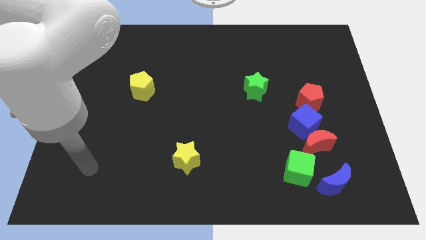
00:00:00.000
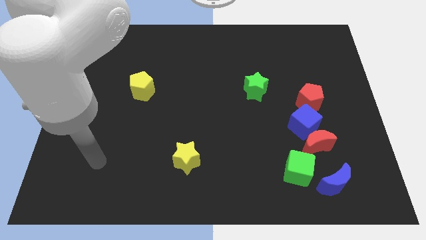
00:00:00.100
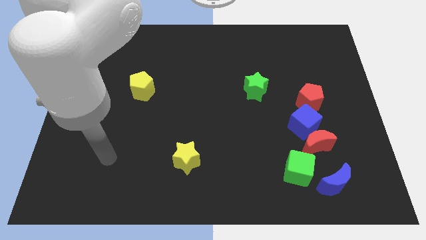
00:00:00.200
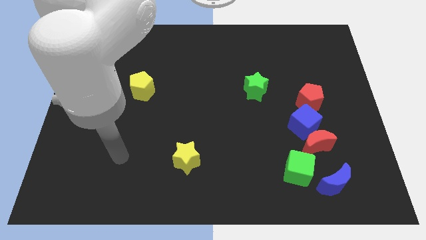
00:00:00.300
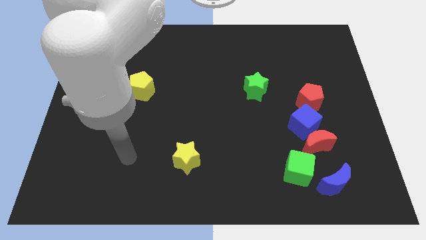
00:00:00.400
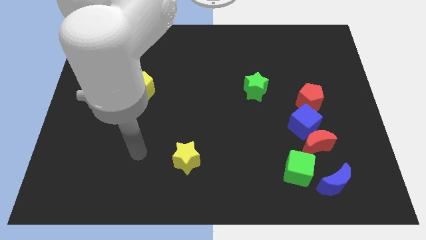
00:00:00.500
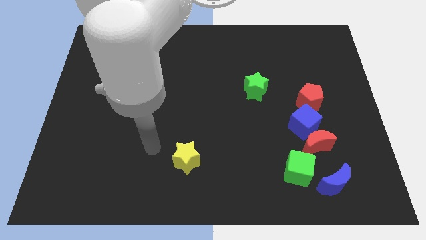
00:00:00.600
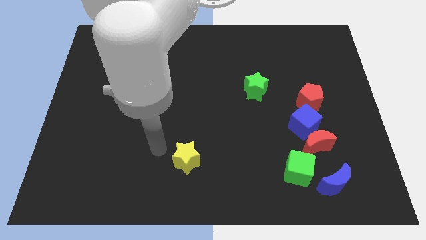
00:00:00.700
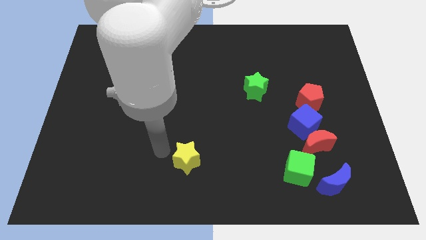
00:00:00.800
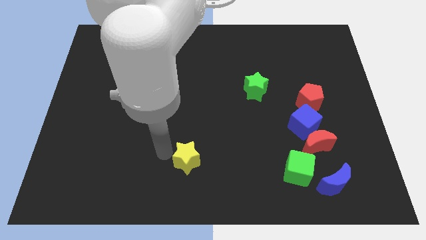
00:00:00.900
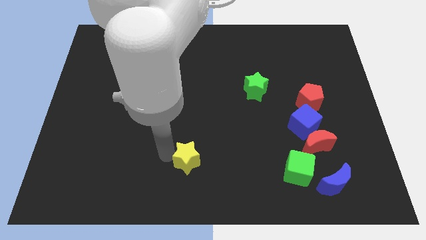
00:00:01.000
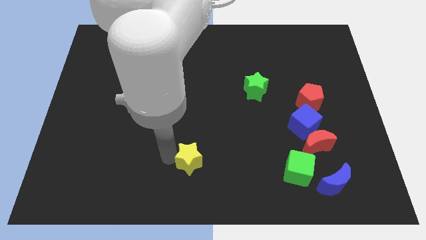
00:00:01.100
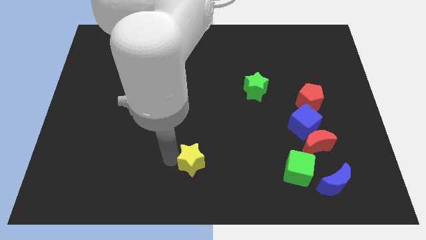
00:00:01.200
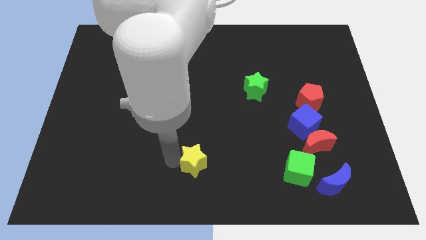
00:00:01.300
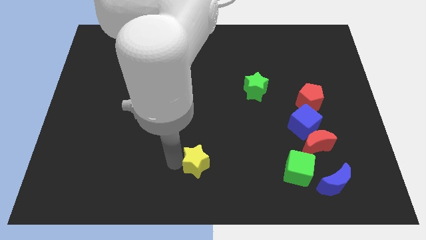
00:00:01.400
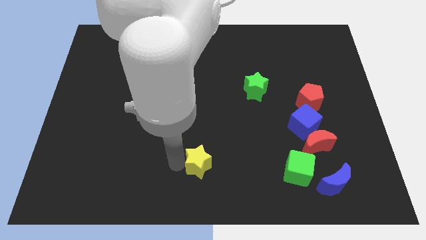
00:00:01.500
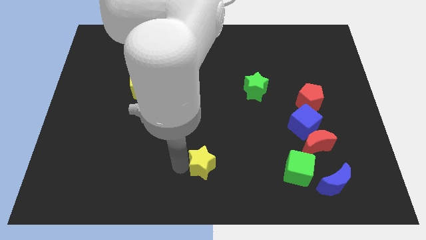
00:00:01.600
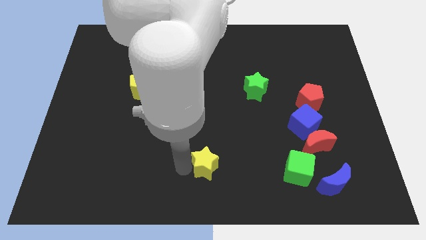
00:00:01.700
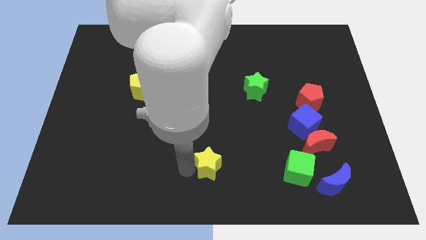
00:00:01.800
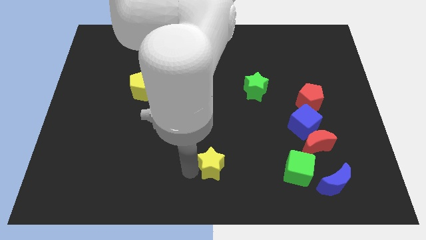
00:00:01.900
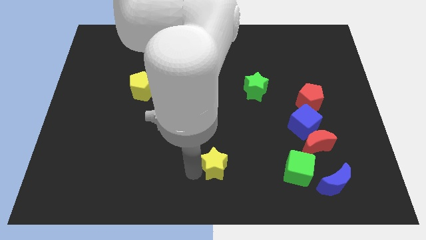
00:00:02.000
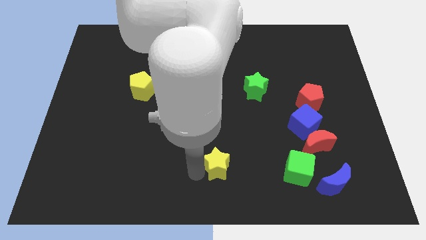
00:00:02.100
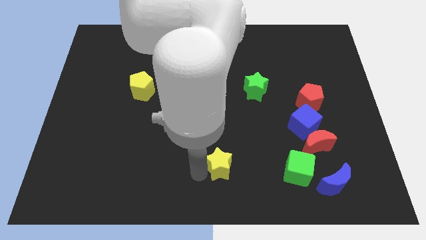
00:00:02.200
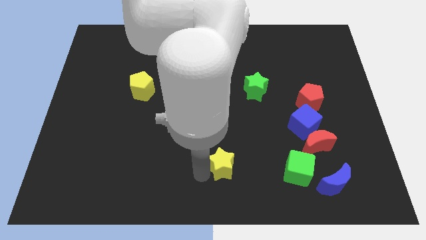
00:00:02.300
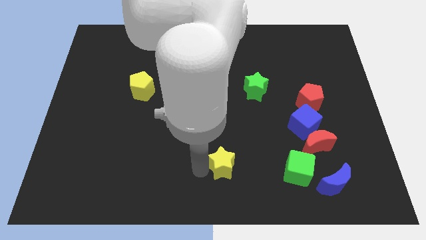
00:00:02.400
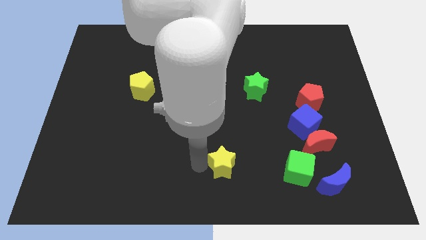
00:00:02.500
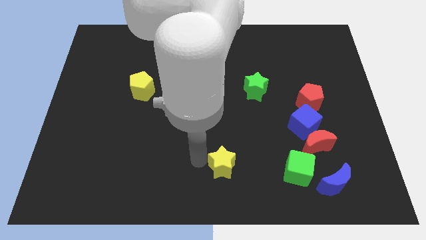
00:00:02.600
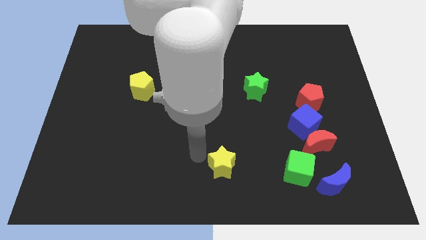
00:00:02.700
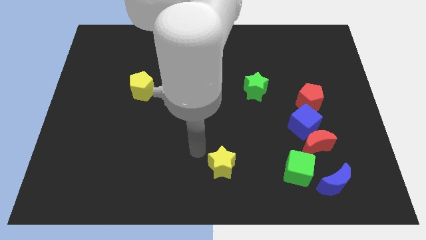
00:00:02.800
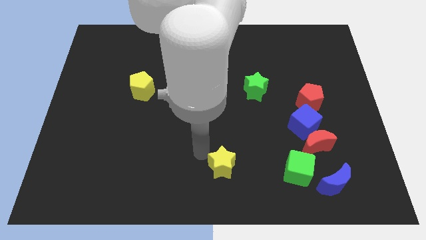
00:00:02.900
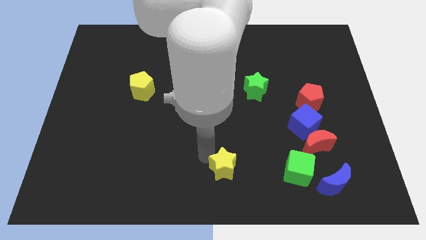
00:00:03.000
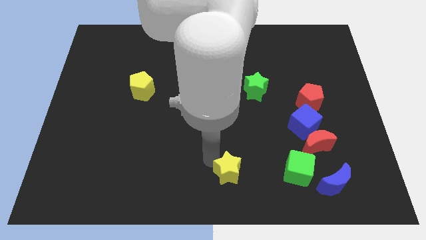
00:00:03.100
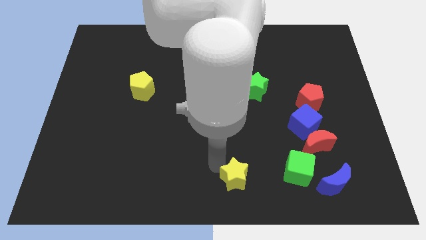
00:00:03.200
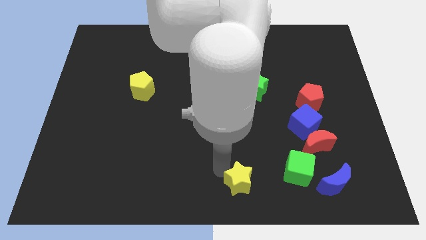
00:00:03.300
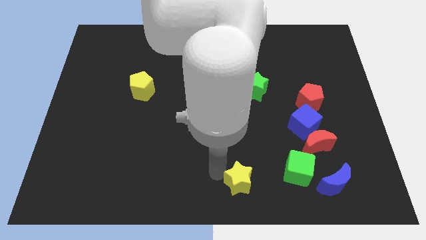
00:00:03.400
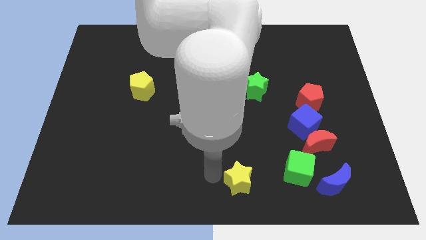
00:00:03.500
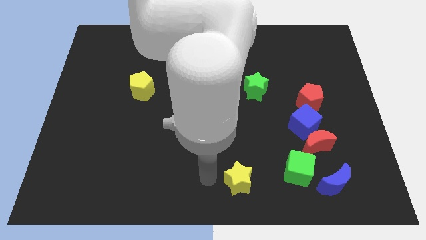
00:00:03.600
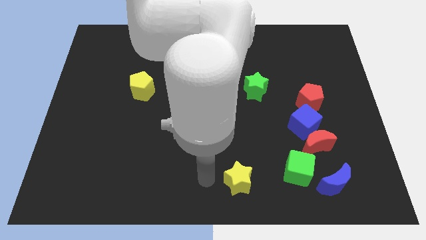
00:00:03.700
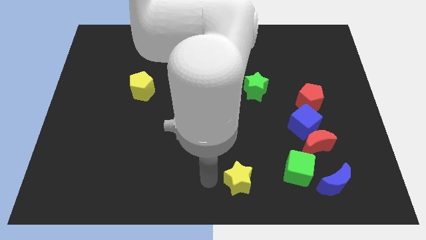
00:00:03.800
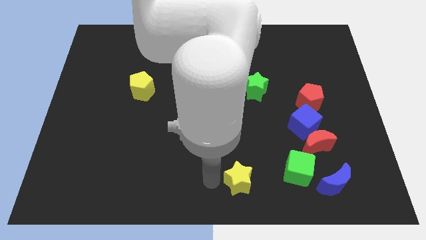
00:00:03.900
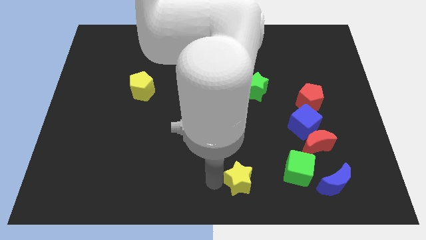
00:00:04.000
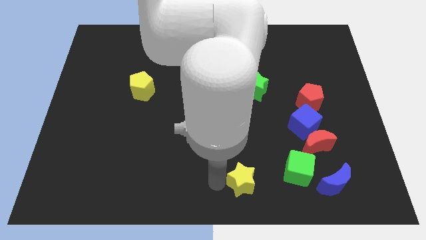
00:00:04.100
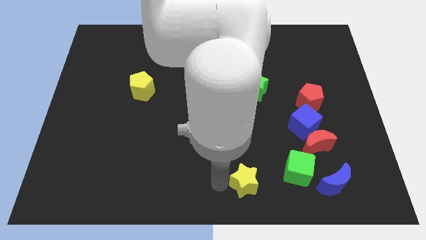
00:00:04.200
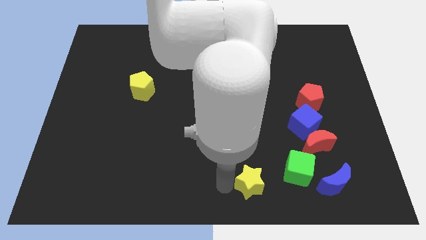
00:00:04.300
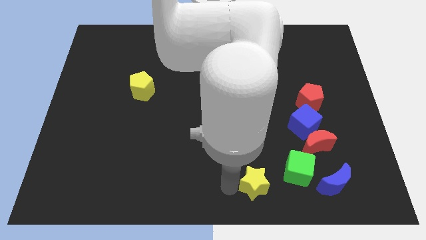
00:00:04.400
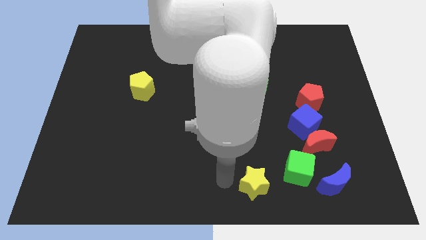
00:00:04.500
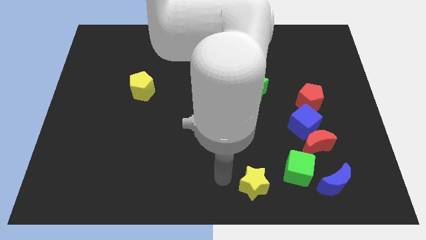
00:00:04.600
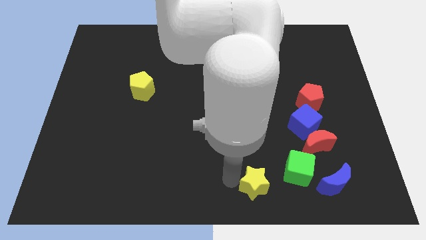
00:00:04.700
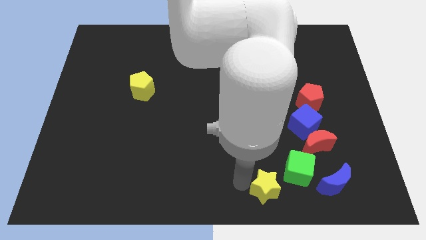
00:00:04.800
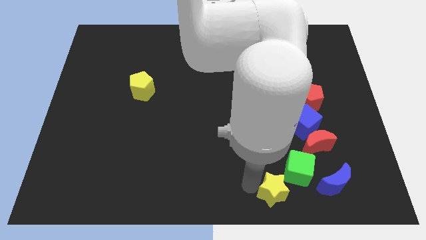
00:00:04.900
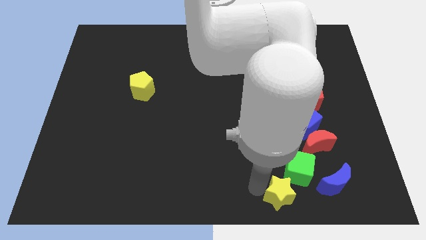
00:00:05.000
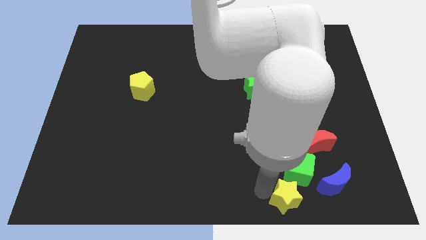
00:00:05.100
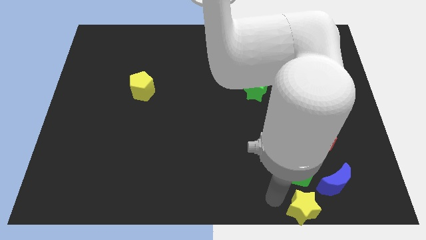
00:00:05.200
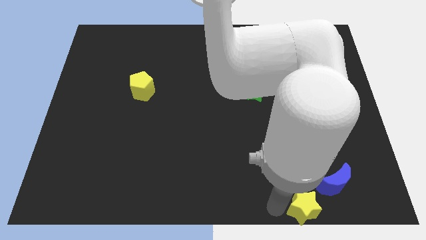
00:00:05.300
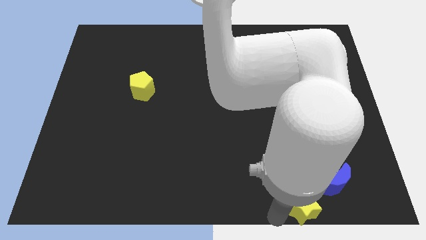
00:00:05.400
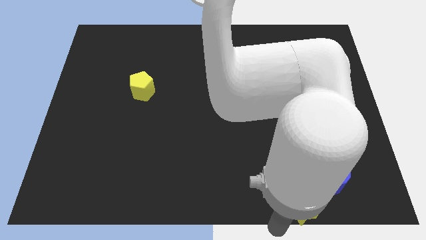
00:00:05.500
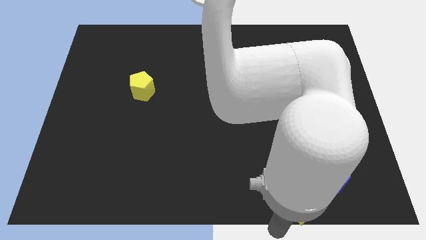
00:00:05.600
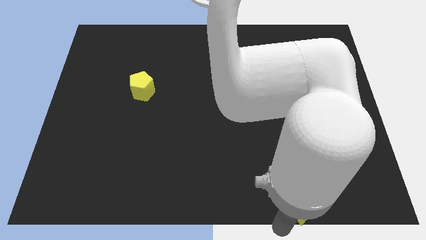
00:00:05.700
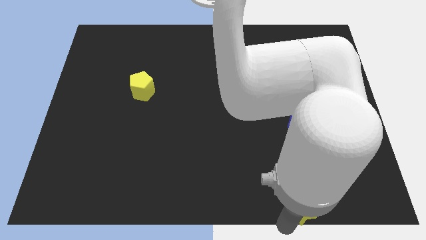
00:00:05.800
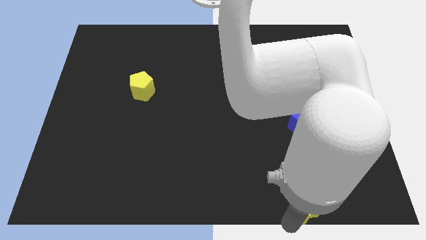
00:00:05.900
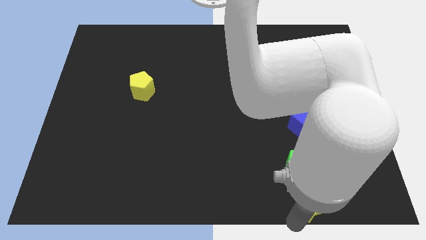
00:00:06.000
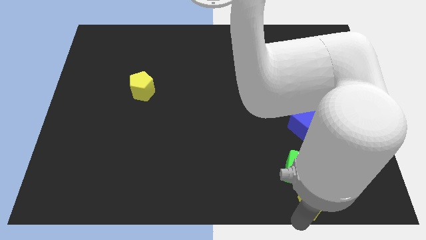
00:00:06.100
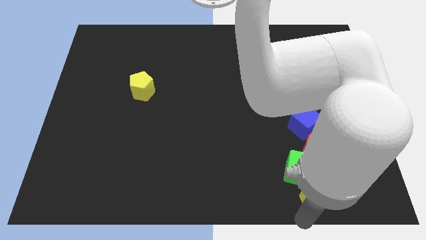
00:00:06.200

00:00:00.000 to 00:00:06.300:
slide the yellow star next to the blue moon

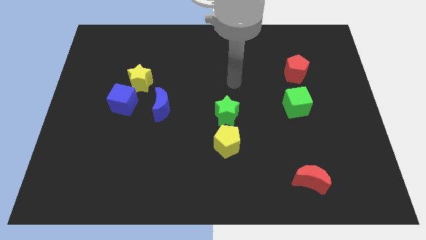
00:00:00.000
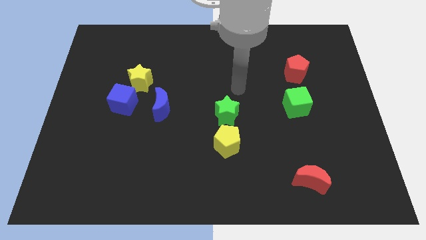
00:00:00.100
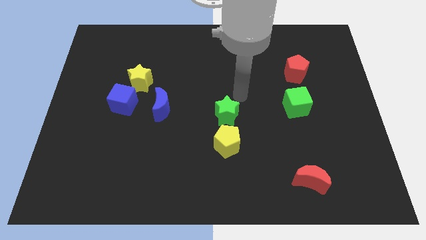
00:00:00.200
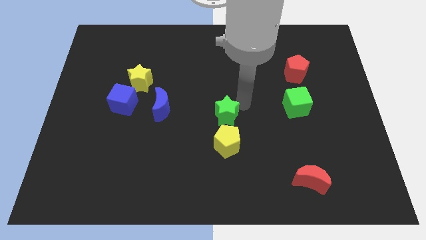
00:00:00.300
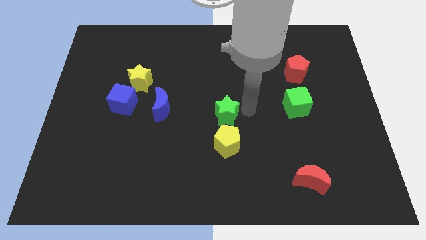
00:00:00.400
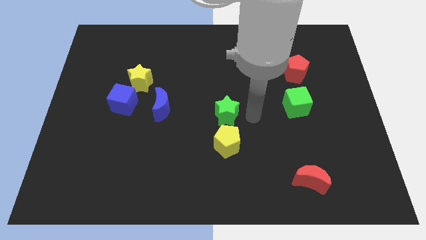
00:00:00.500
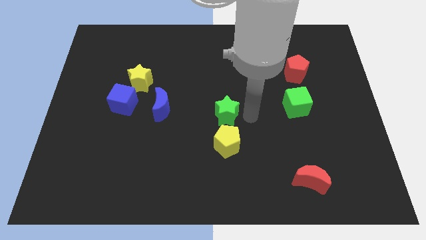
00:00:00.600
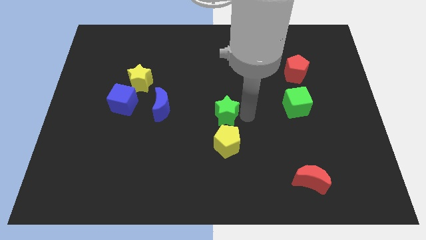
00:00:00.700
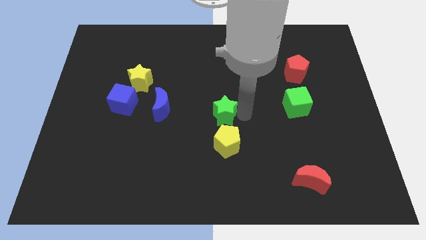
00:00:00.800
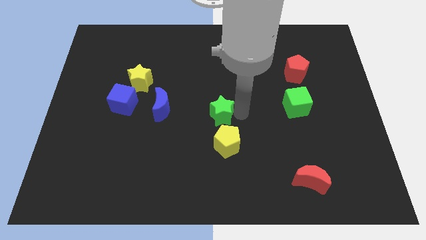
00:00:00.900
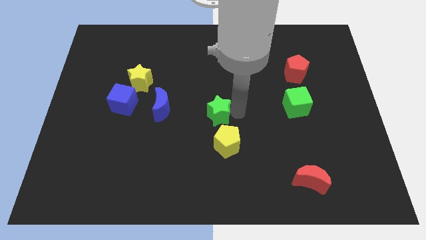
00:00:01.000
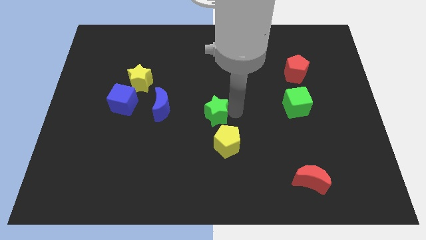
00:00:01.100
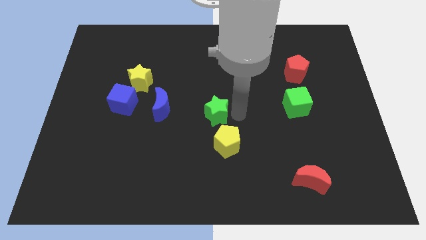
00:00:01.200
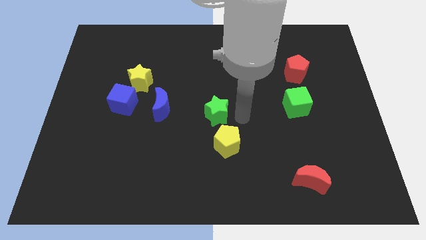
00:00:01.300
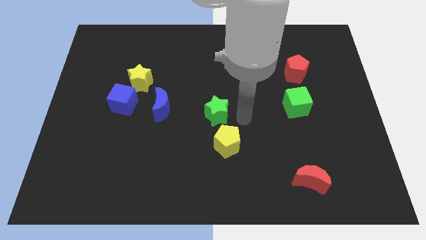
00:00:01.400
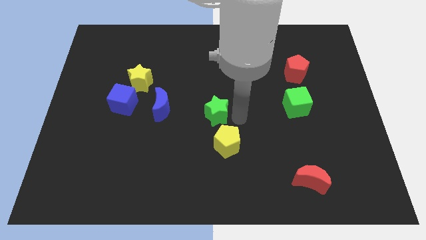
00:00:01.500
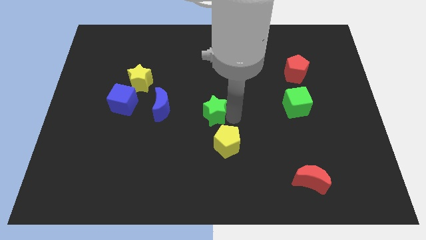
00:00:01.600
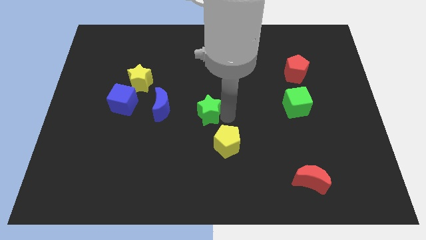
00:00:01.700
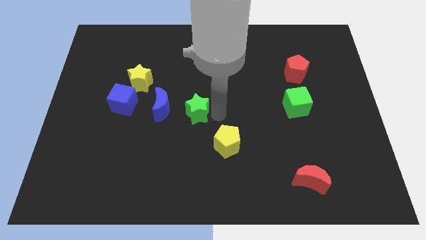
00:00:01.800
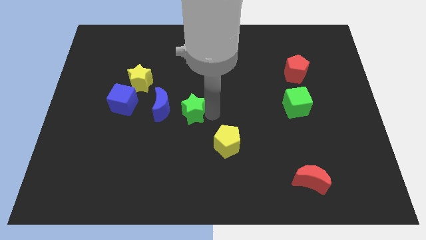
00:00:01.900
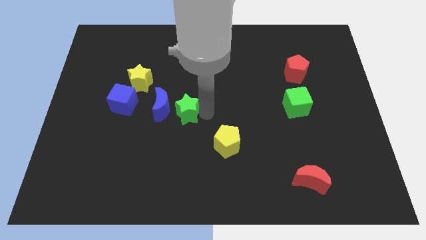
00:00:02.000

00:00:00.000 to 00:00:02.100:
push the green star to the blue moon
